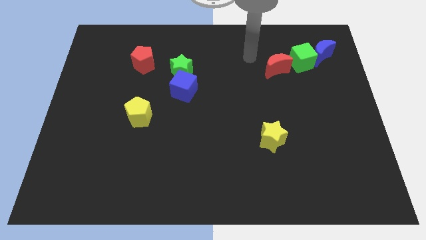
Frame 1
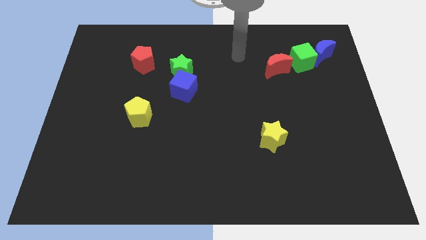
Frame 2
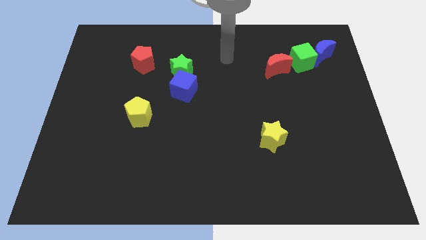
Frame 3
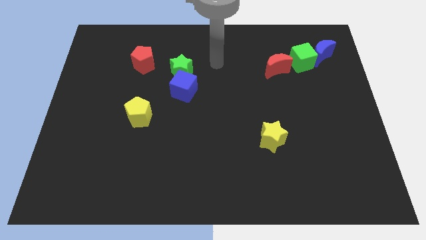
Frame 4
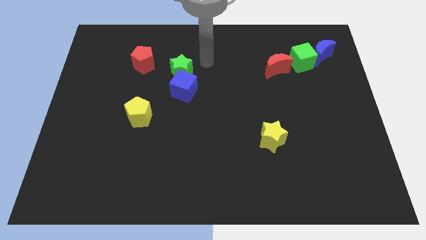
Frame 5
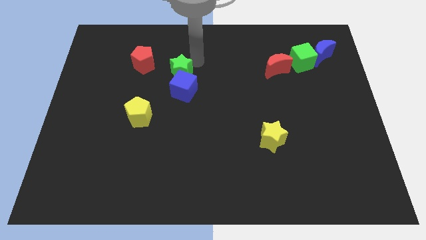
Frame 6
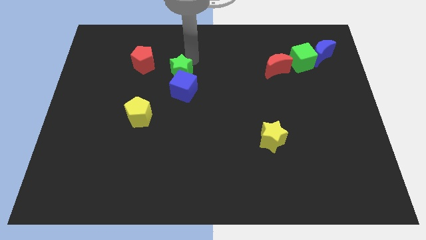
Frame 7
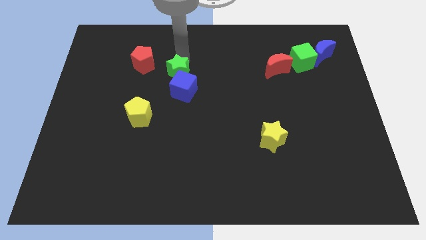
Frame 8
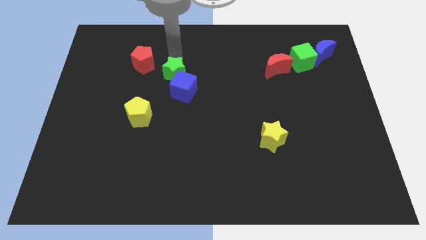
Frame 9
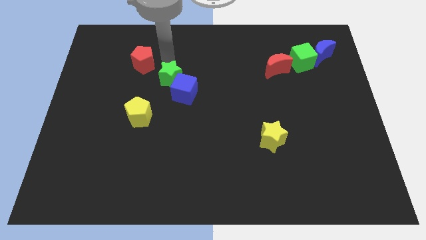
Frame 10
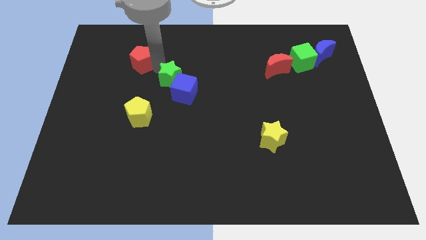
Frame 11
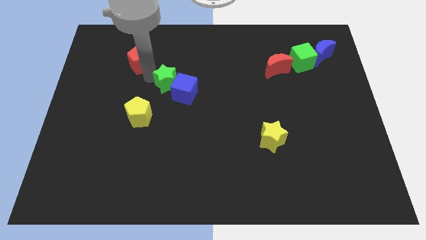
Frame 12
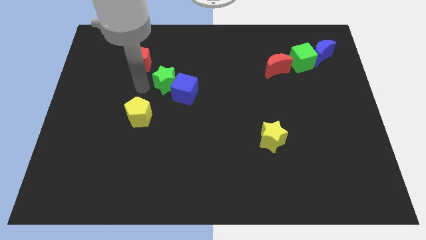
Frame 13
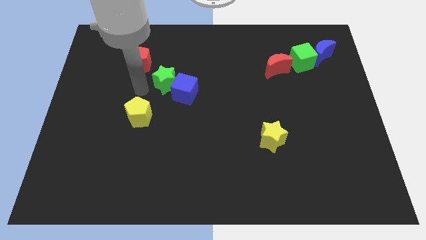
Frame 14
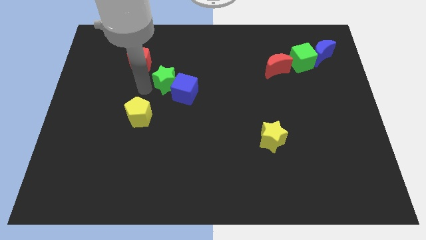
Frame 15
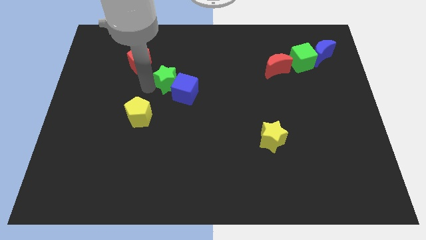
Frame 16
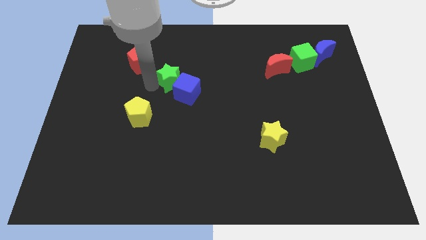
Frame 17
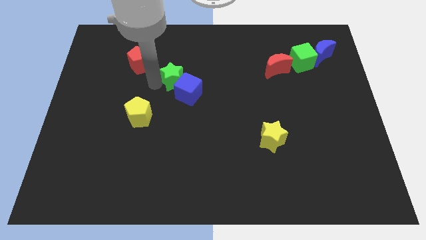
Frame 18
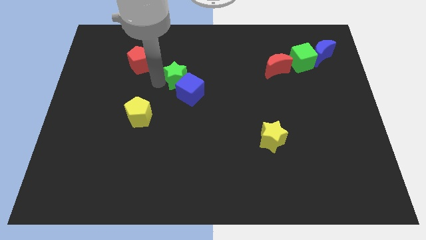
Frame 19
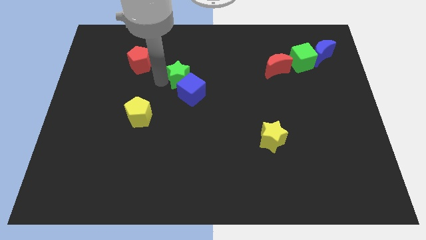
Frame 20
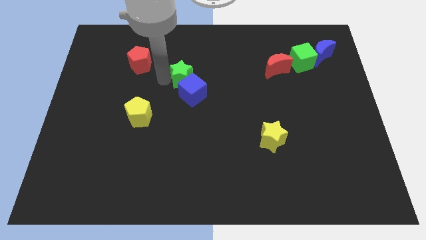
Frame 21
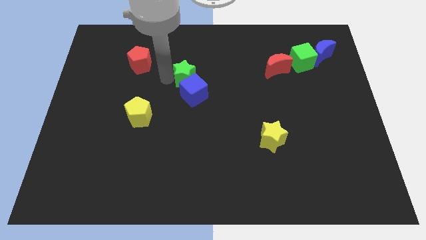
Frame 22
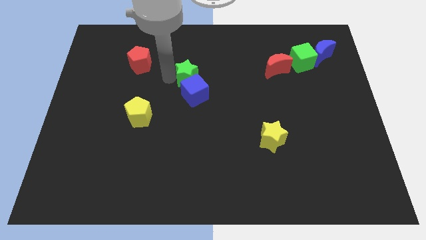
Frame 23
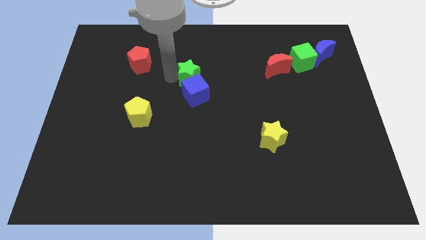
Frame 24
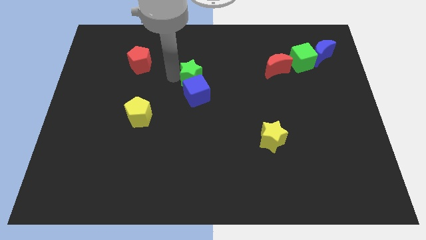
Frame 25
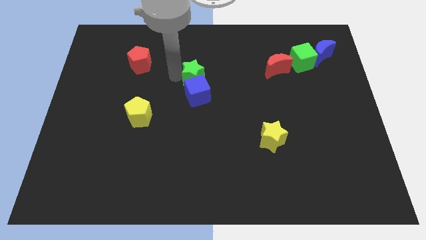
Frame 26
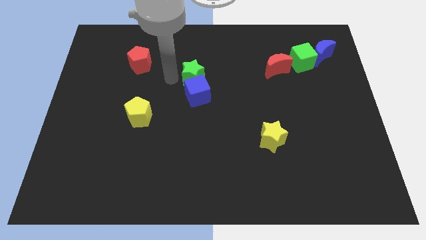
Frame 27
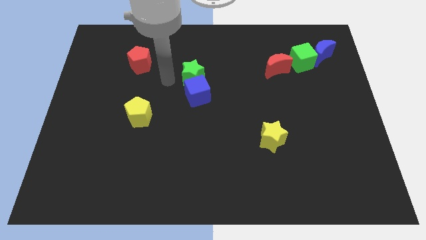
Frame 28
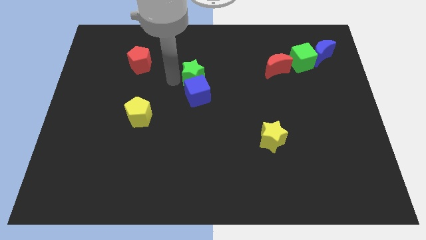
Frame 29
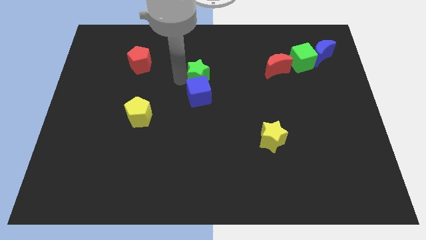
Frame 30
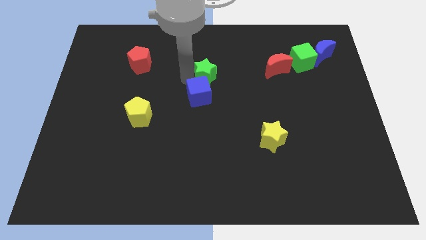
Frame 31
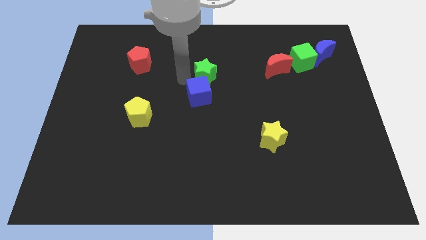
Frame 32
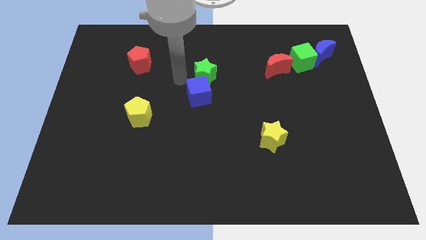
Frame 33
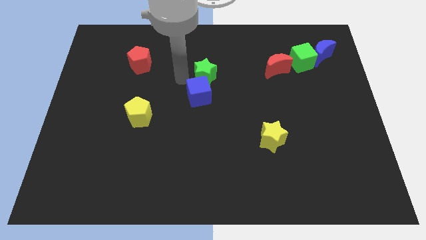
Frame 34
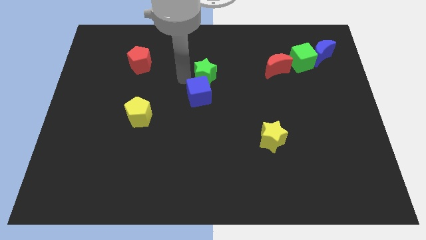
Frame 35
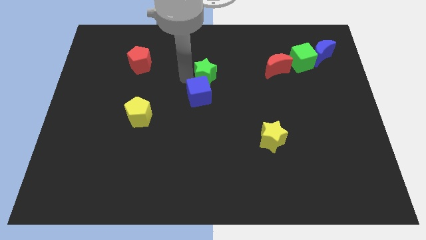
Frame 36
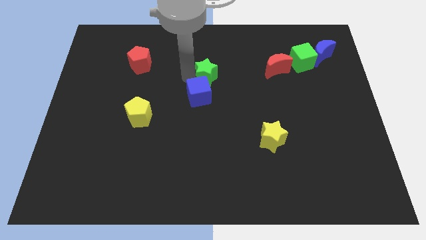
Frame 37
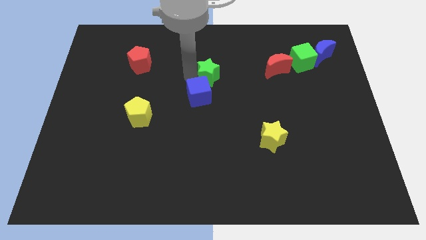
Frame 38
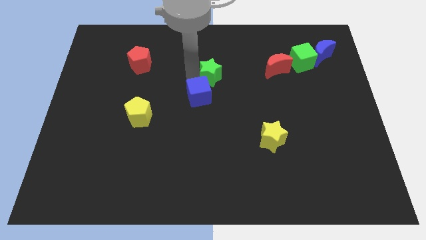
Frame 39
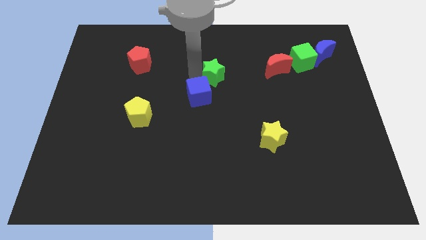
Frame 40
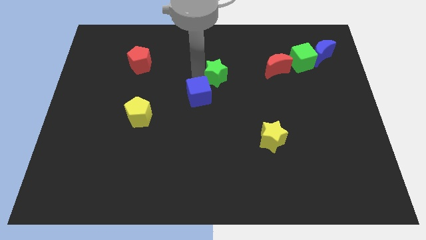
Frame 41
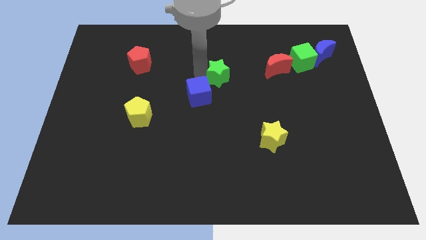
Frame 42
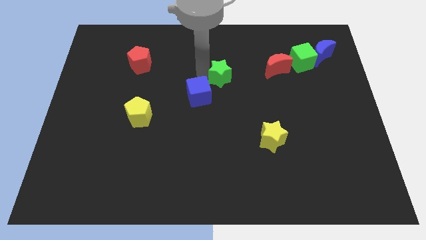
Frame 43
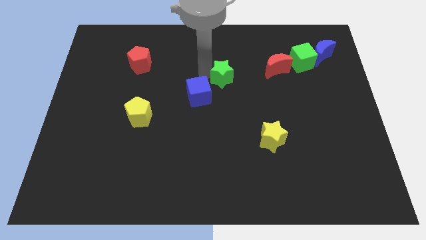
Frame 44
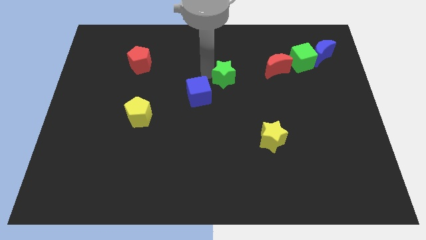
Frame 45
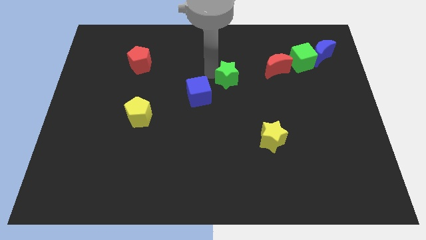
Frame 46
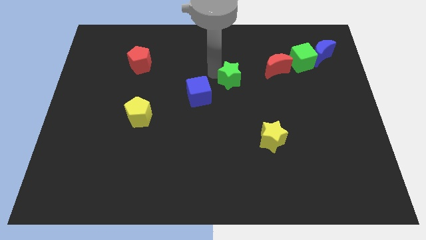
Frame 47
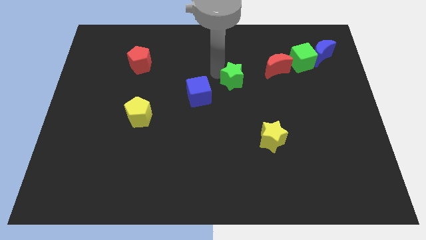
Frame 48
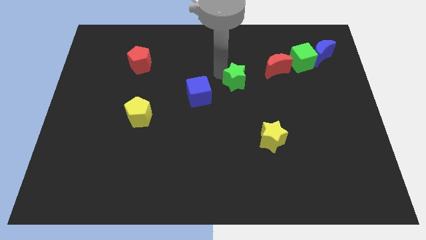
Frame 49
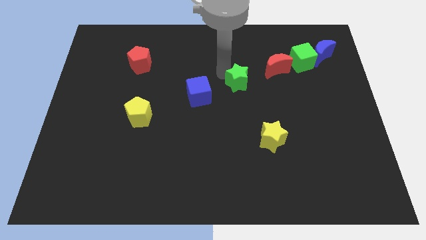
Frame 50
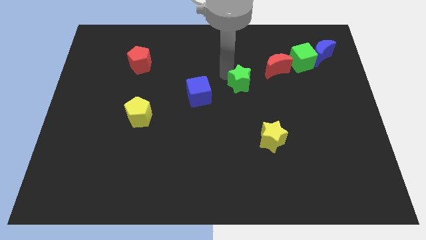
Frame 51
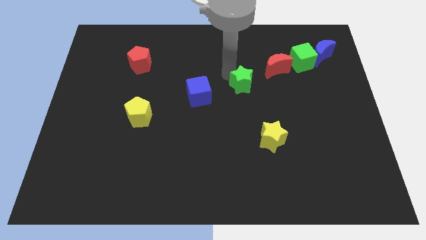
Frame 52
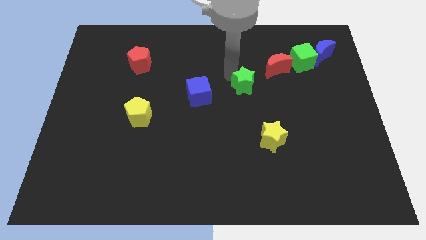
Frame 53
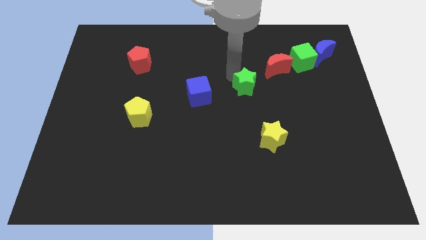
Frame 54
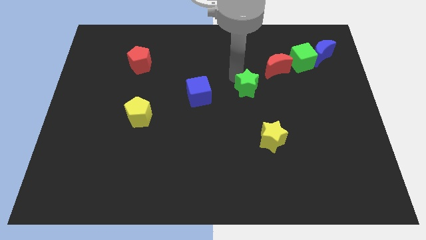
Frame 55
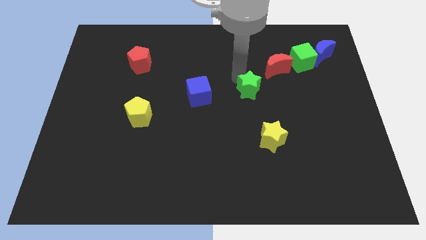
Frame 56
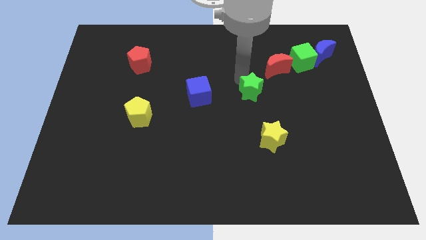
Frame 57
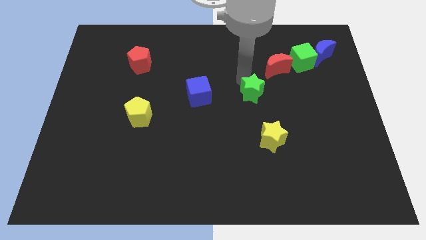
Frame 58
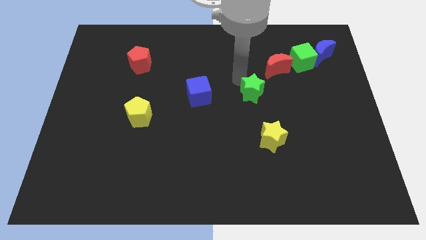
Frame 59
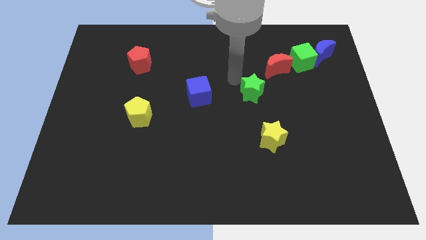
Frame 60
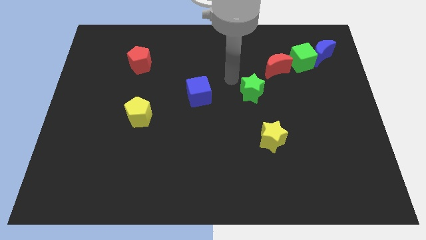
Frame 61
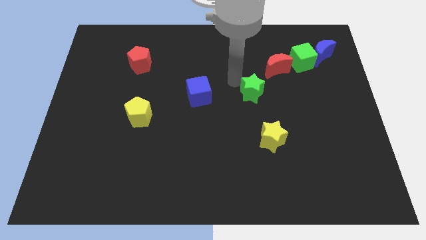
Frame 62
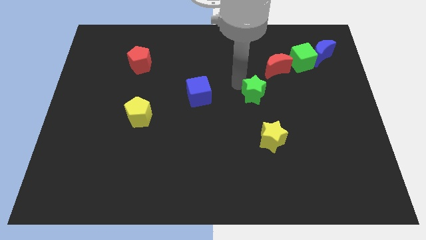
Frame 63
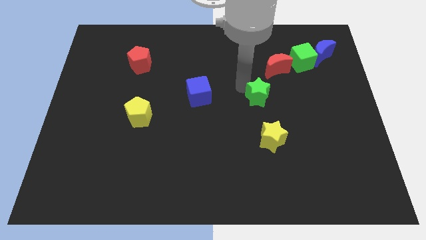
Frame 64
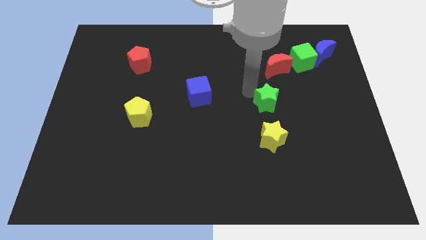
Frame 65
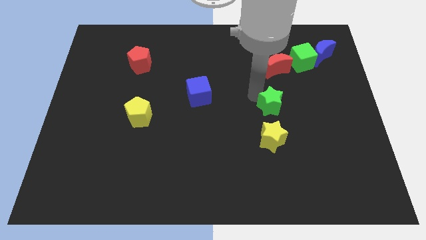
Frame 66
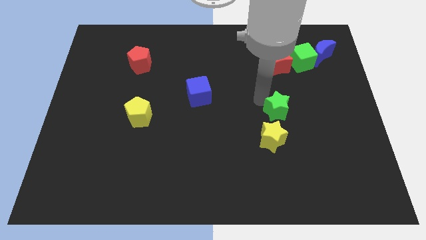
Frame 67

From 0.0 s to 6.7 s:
push the green star to the top right of the yellow star

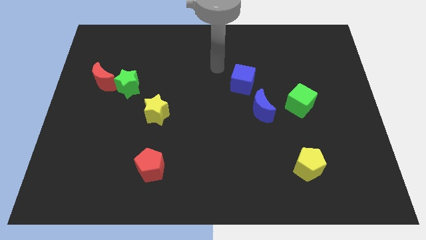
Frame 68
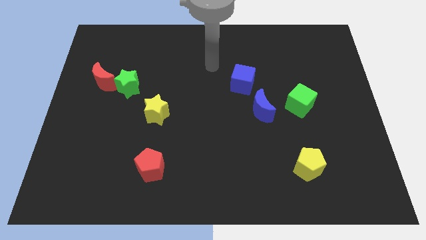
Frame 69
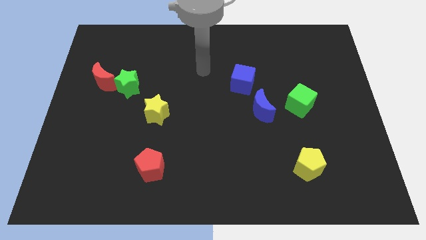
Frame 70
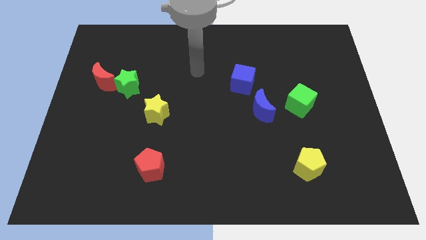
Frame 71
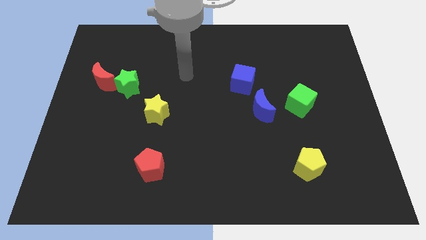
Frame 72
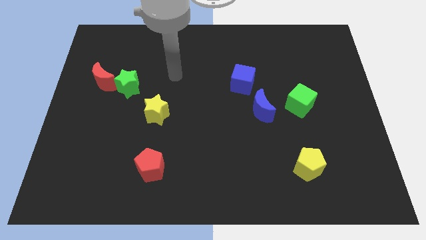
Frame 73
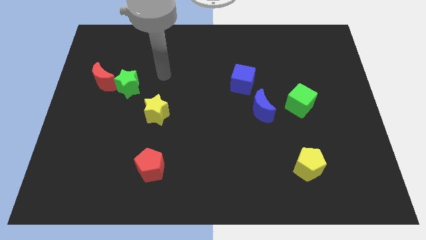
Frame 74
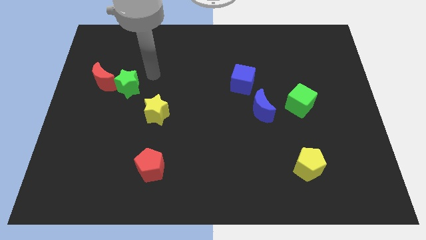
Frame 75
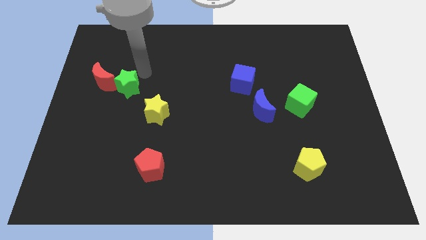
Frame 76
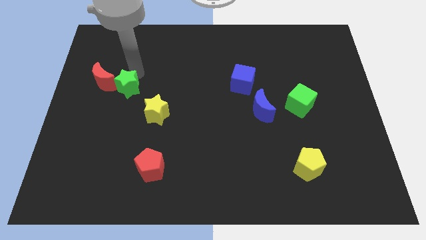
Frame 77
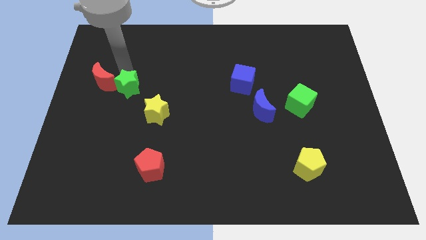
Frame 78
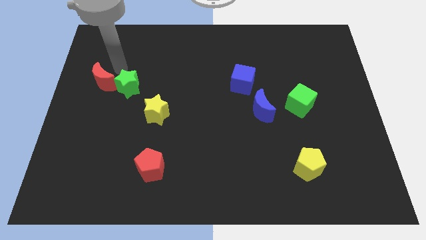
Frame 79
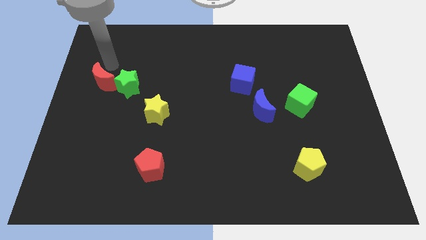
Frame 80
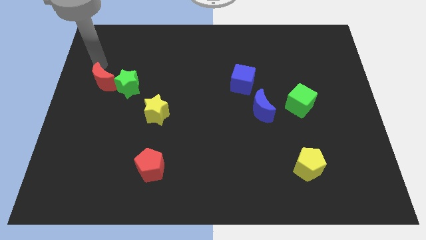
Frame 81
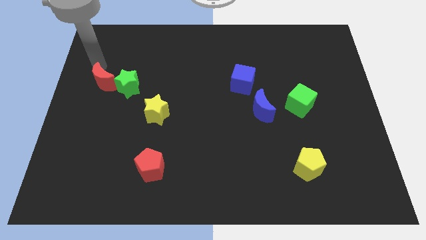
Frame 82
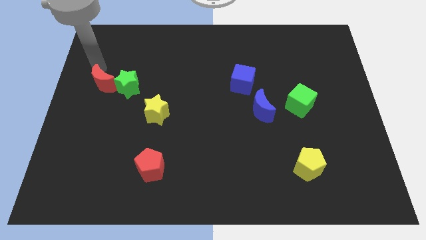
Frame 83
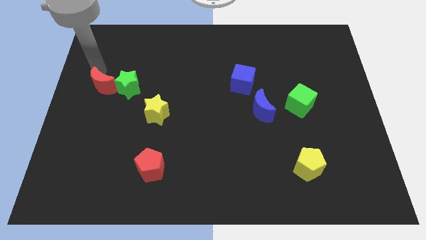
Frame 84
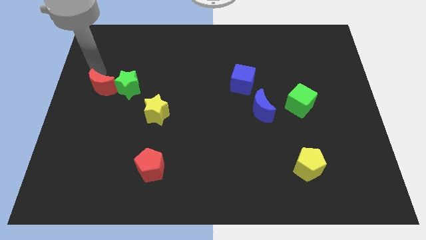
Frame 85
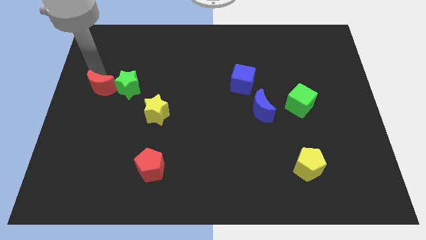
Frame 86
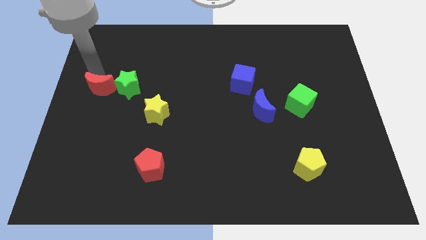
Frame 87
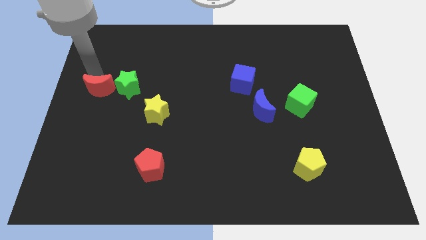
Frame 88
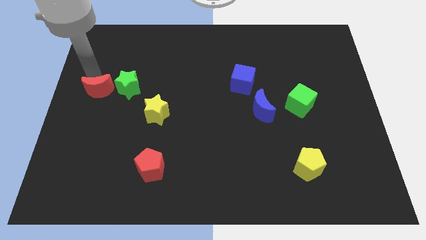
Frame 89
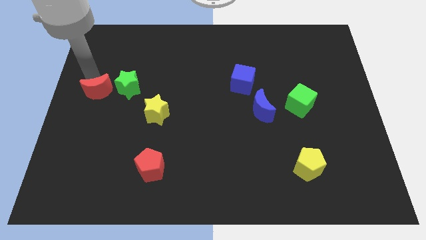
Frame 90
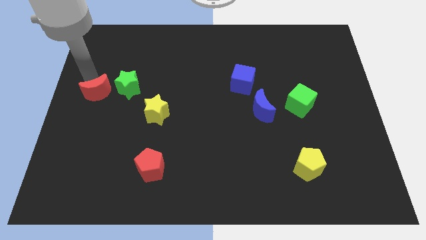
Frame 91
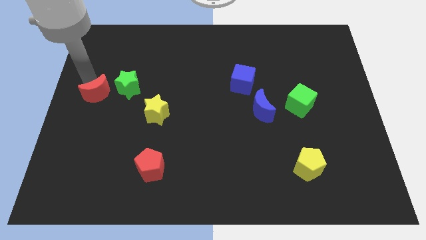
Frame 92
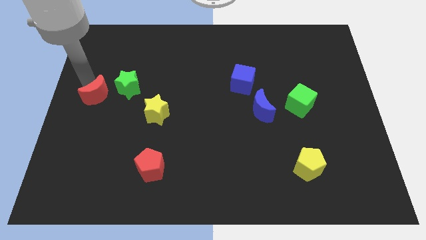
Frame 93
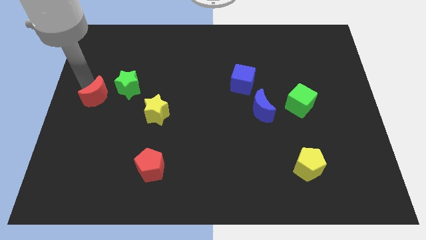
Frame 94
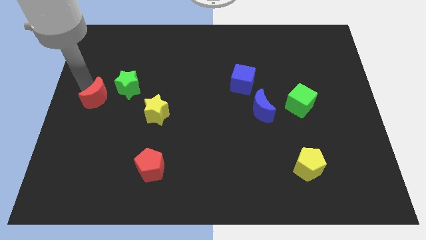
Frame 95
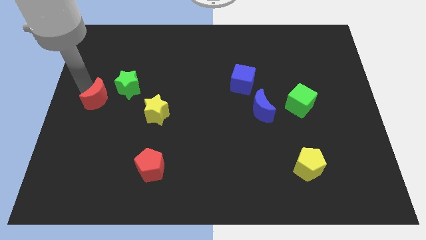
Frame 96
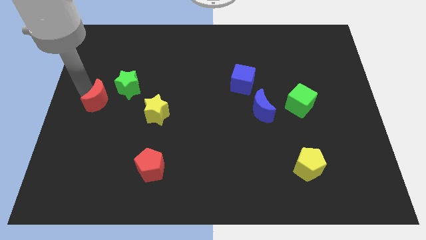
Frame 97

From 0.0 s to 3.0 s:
put the red moon to the left of the yellow star
